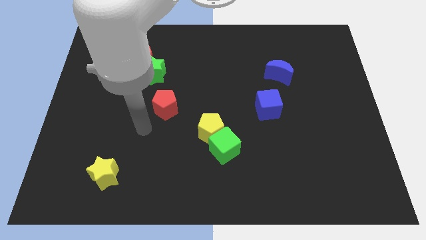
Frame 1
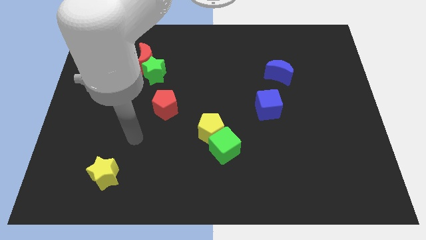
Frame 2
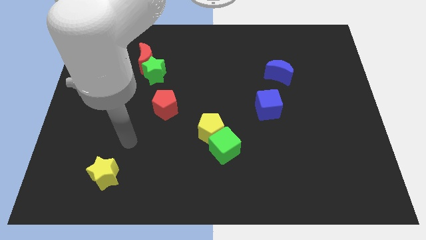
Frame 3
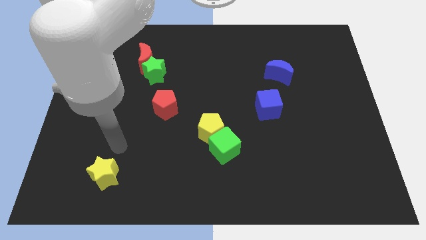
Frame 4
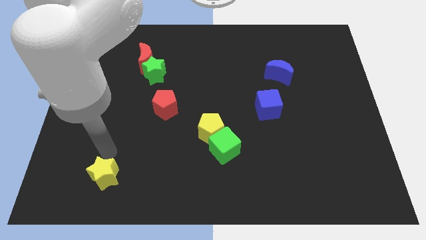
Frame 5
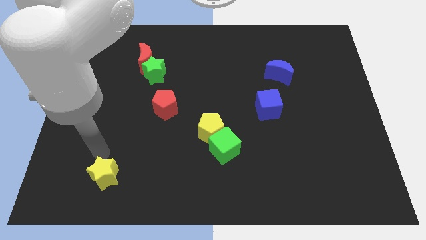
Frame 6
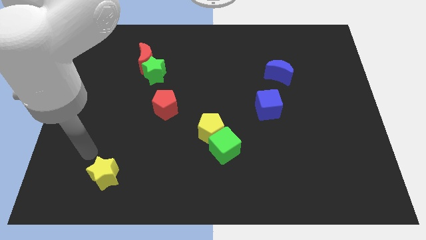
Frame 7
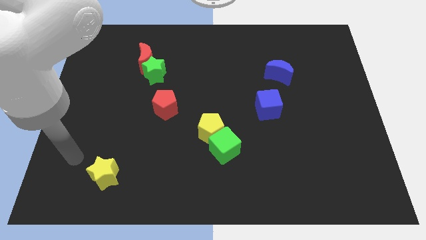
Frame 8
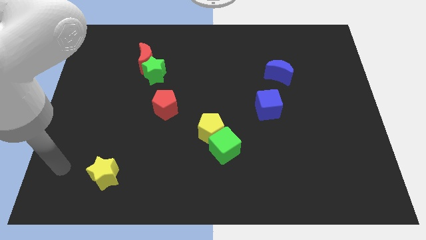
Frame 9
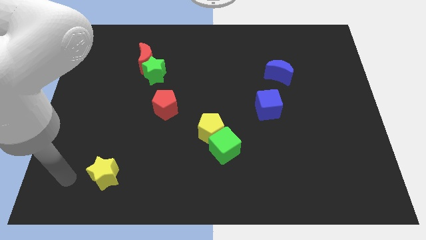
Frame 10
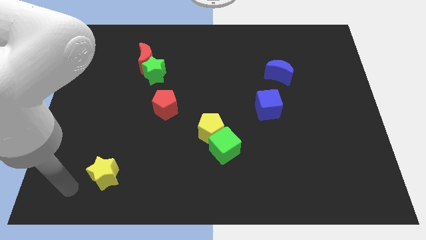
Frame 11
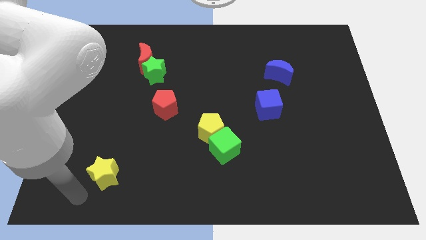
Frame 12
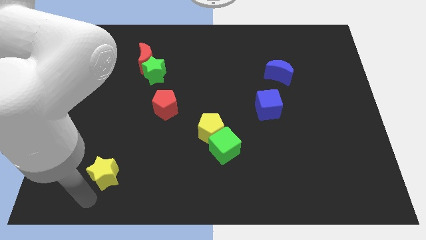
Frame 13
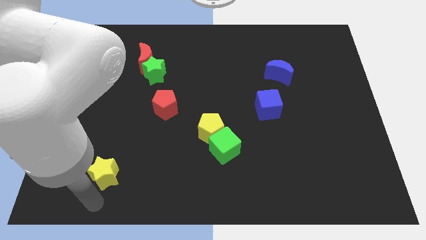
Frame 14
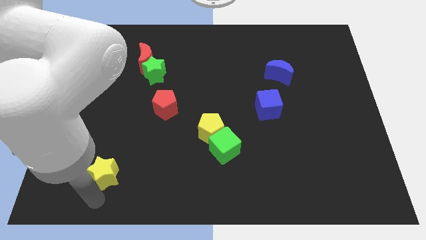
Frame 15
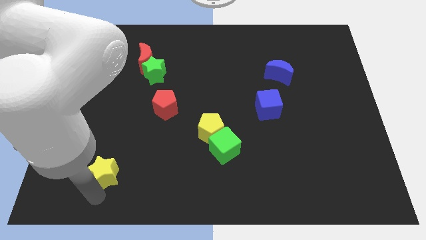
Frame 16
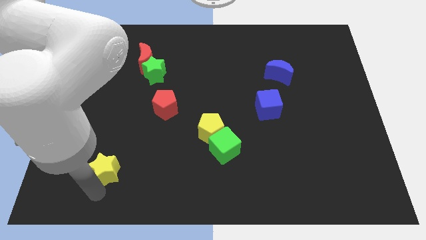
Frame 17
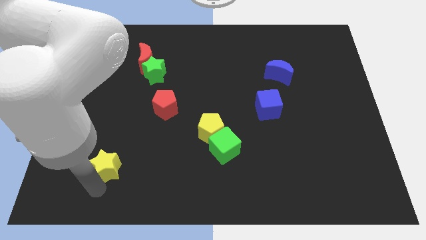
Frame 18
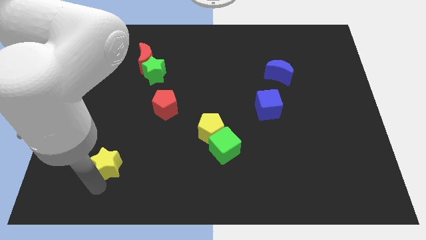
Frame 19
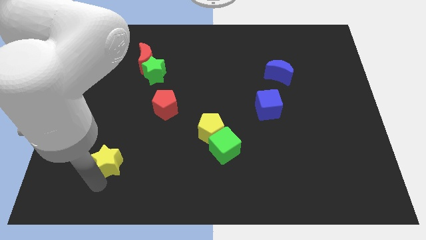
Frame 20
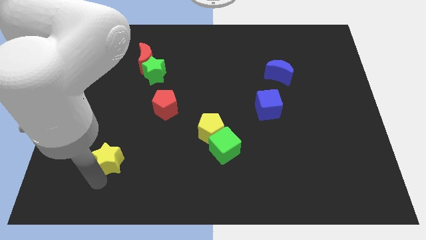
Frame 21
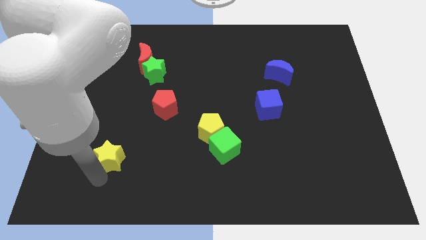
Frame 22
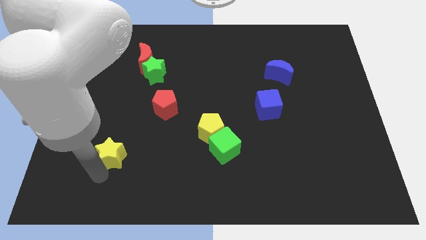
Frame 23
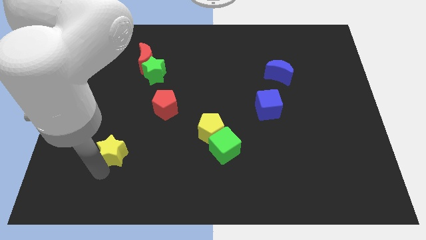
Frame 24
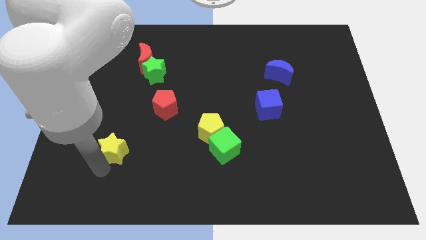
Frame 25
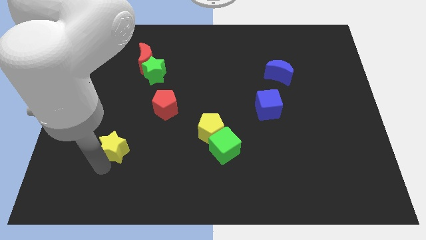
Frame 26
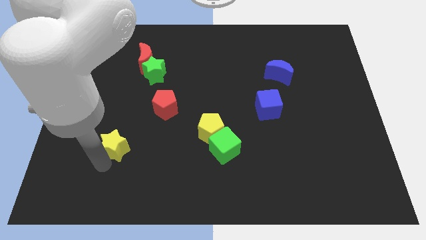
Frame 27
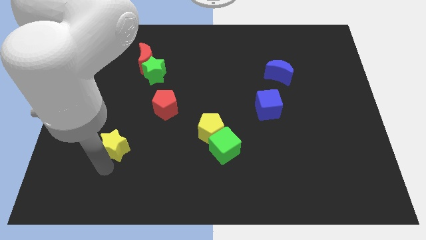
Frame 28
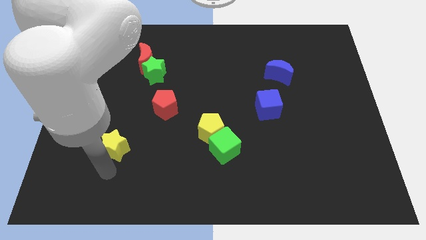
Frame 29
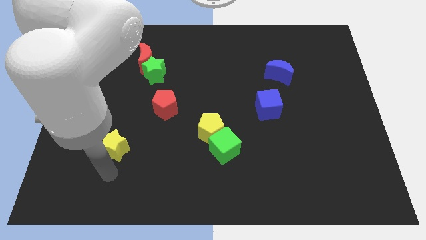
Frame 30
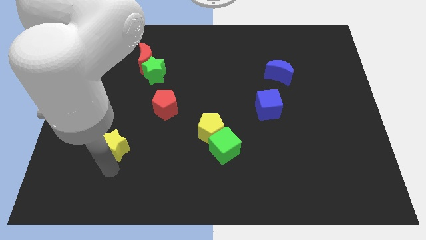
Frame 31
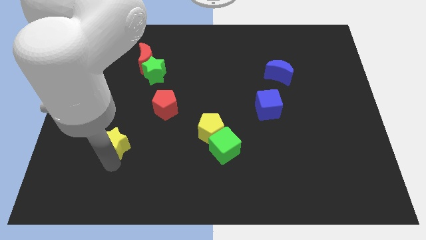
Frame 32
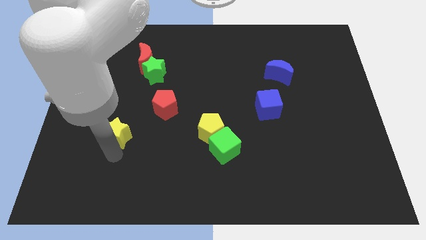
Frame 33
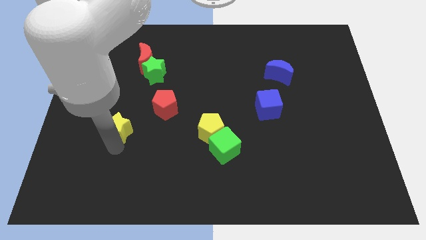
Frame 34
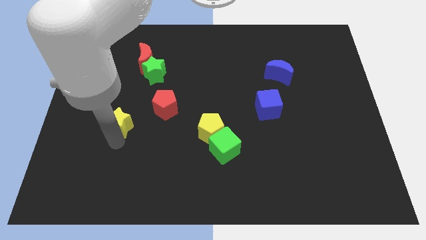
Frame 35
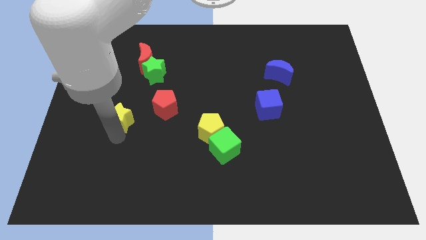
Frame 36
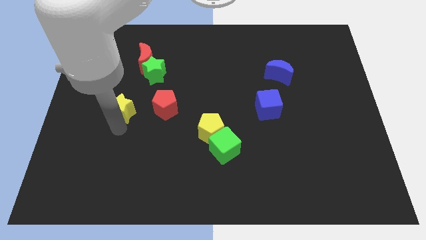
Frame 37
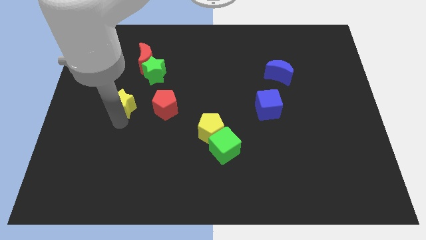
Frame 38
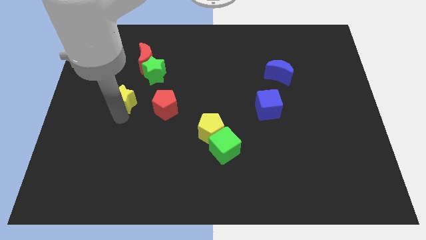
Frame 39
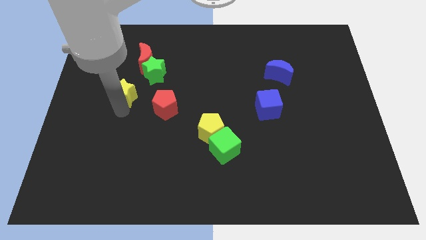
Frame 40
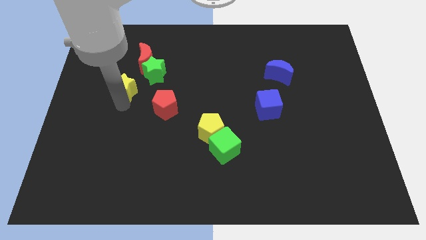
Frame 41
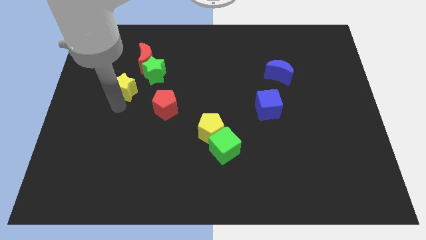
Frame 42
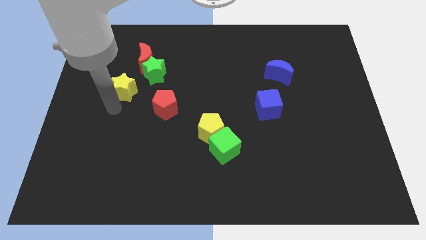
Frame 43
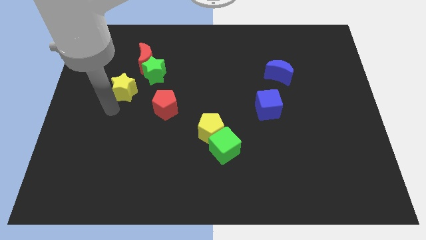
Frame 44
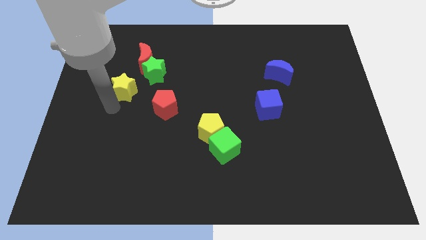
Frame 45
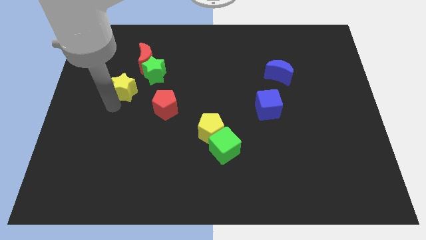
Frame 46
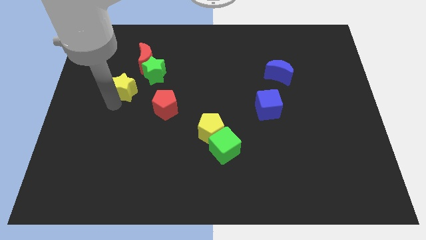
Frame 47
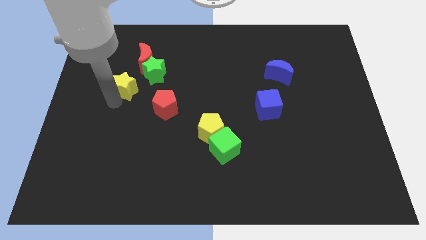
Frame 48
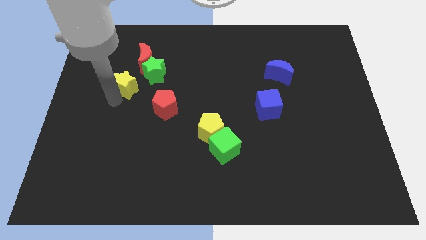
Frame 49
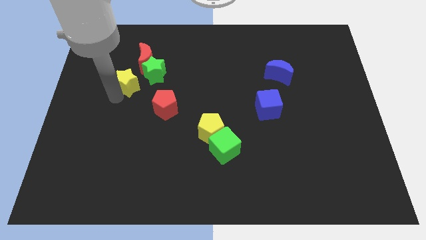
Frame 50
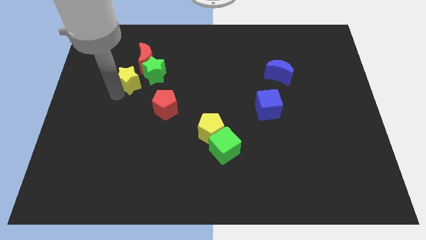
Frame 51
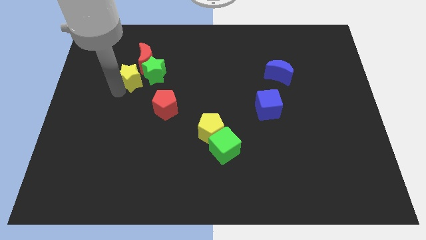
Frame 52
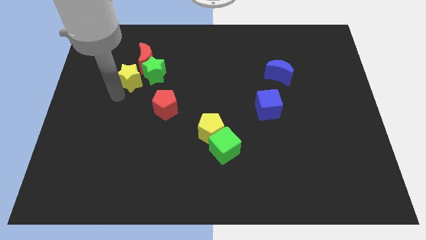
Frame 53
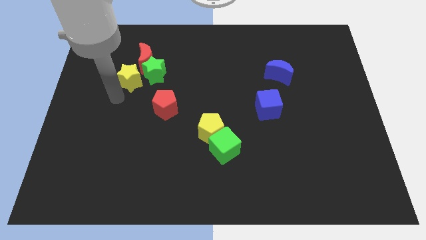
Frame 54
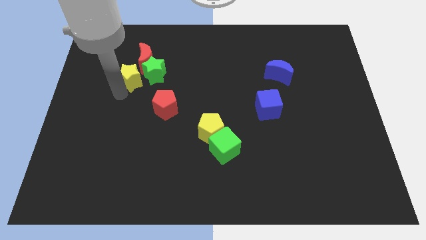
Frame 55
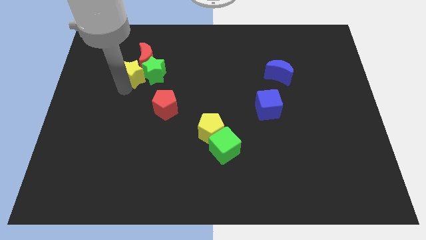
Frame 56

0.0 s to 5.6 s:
move the yellow star close to the red moon

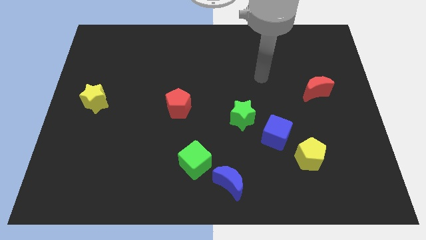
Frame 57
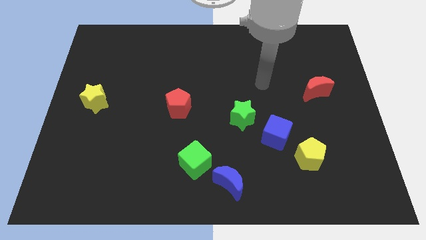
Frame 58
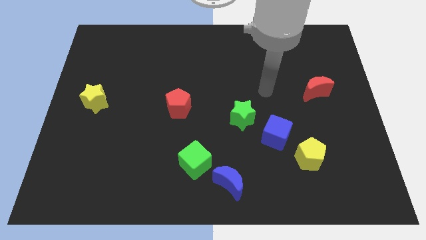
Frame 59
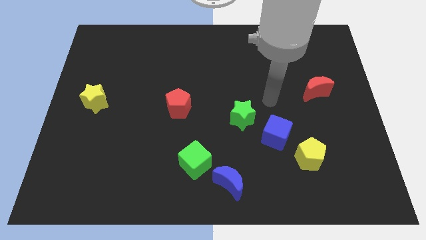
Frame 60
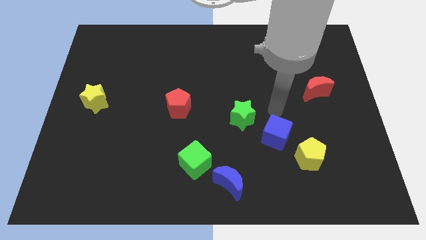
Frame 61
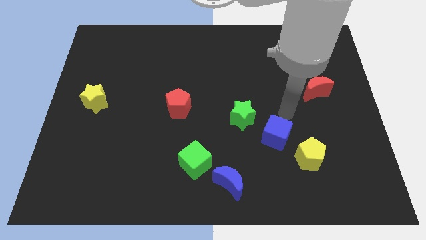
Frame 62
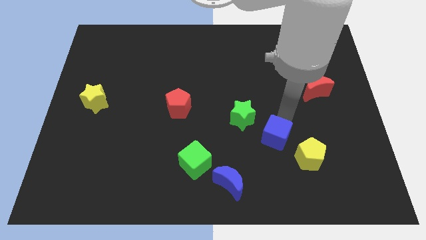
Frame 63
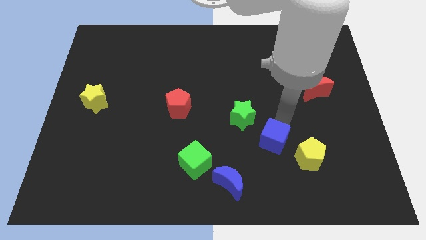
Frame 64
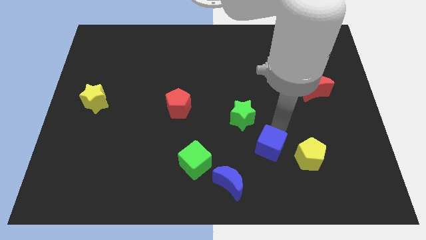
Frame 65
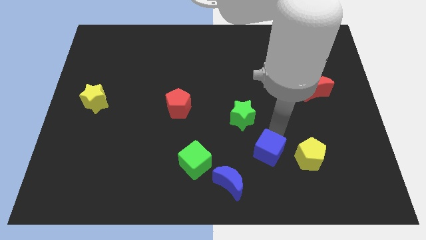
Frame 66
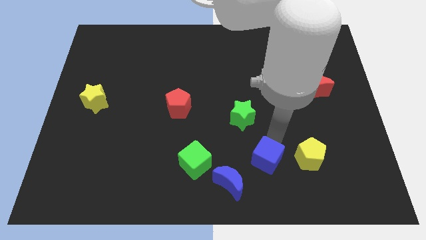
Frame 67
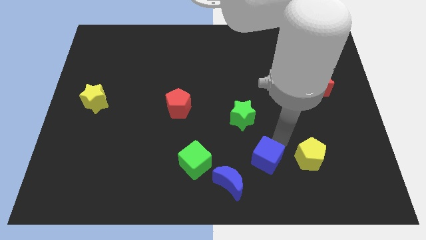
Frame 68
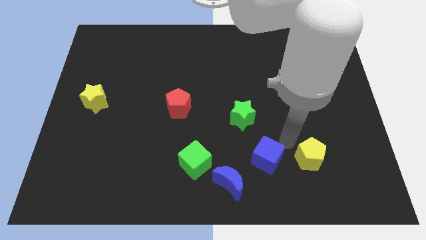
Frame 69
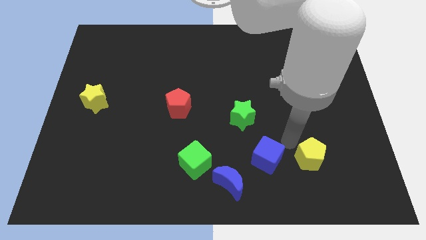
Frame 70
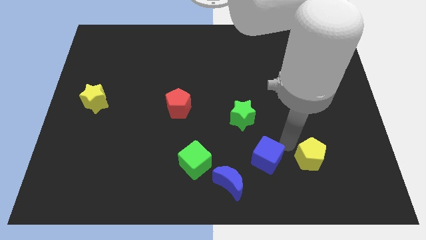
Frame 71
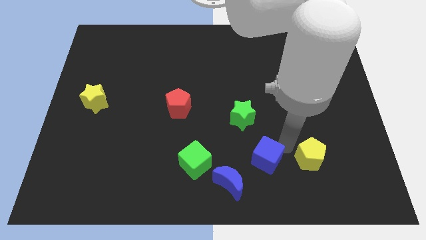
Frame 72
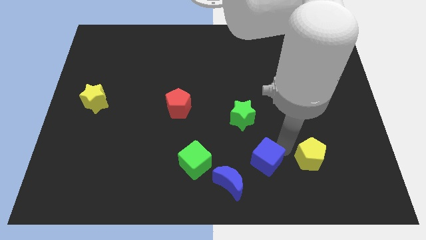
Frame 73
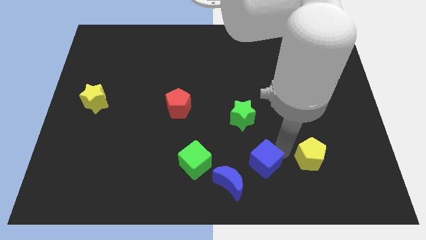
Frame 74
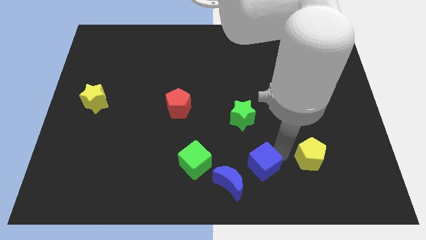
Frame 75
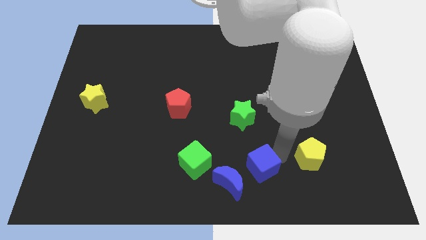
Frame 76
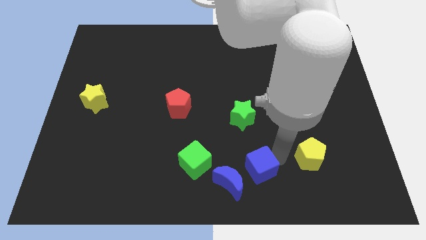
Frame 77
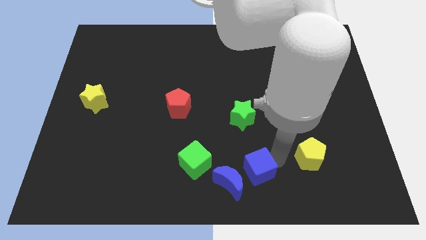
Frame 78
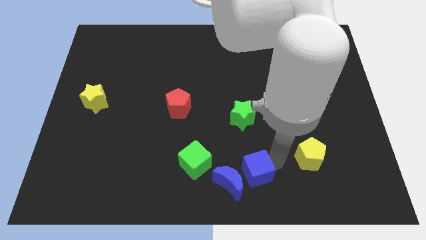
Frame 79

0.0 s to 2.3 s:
move the blue cube close to the blue moon

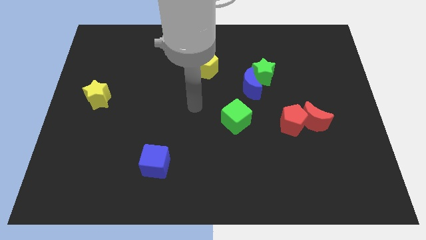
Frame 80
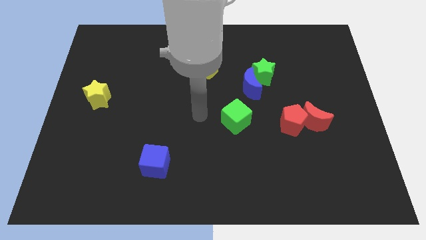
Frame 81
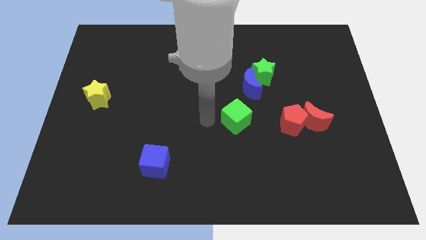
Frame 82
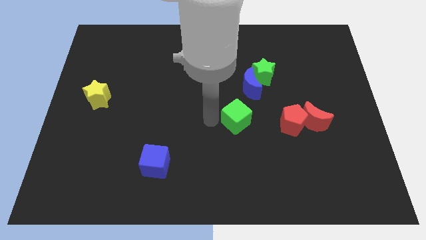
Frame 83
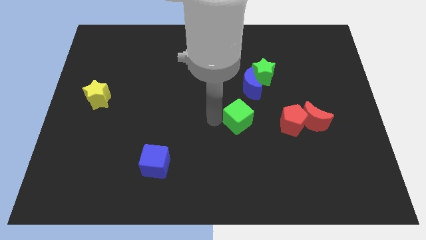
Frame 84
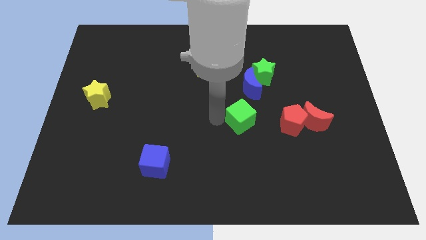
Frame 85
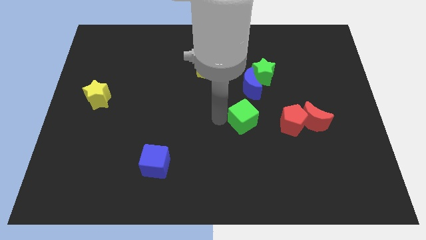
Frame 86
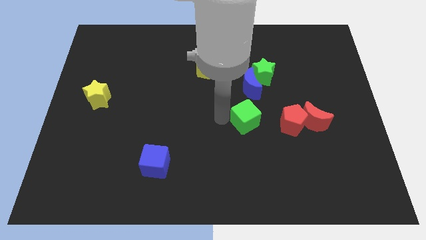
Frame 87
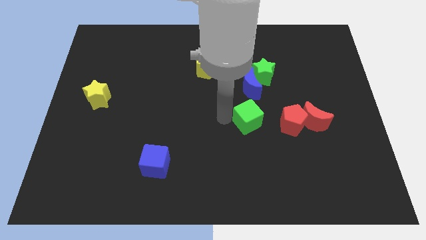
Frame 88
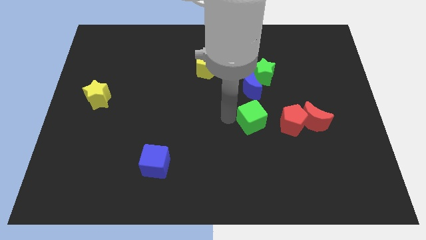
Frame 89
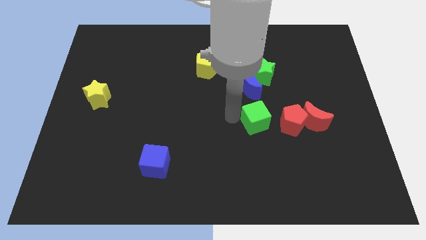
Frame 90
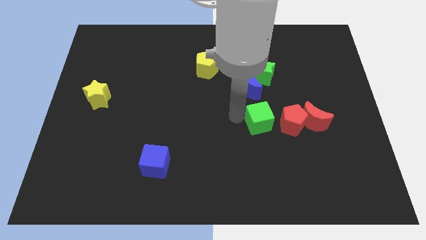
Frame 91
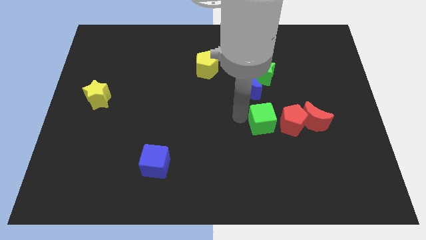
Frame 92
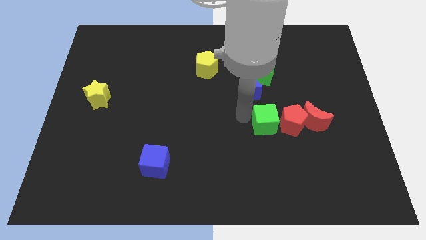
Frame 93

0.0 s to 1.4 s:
move the green cube close to the red pentagon
